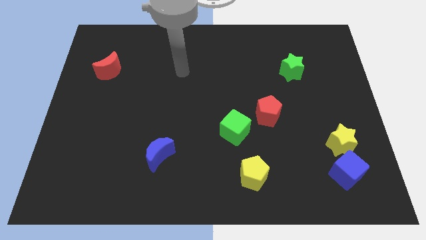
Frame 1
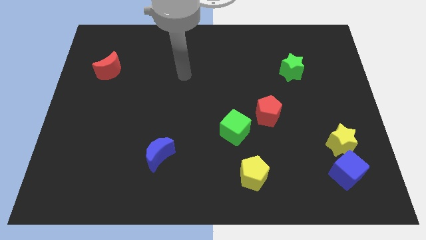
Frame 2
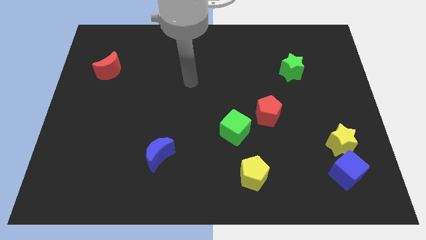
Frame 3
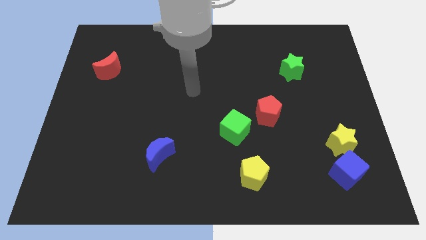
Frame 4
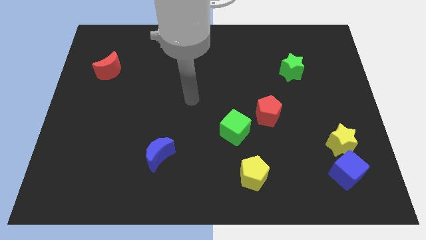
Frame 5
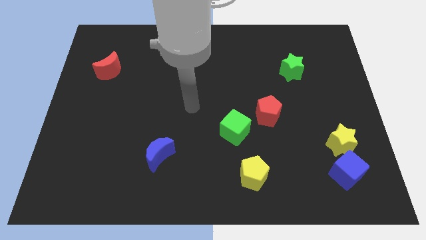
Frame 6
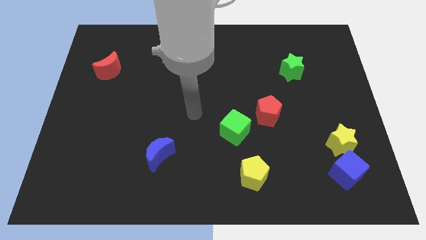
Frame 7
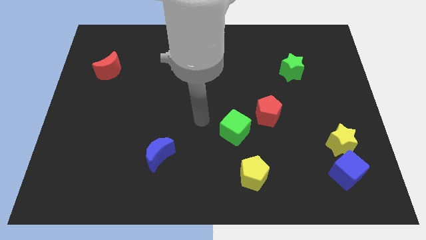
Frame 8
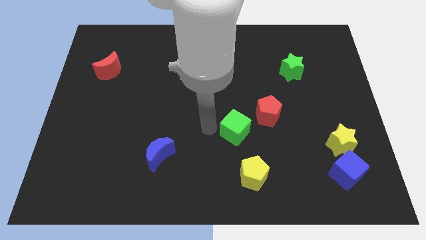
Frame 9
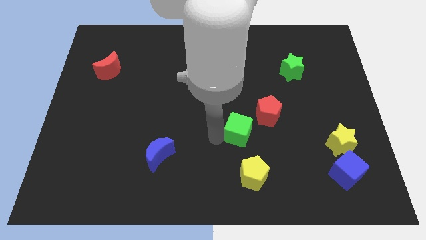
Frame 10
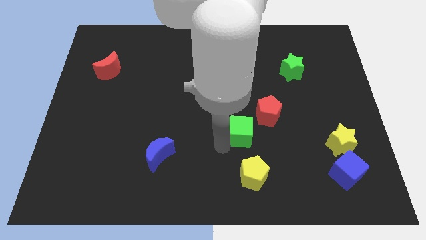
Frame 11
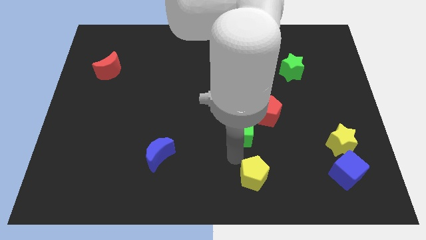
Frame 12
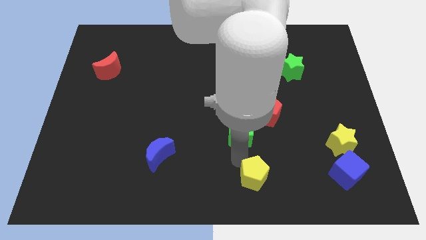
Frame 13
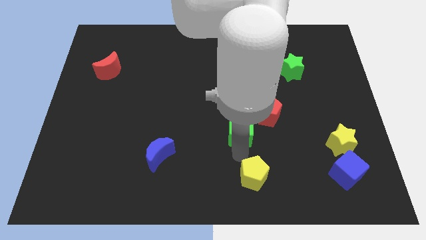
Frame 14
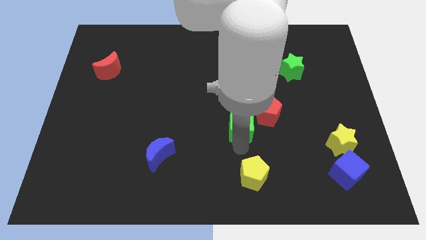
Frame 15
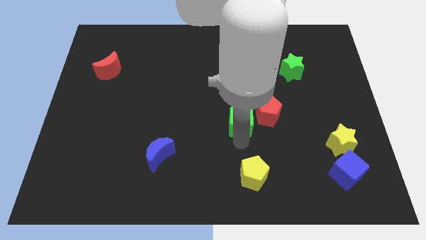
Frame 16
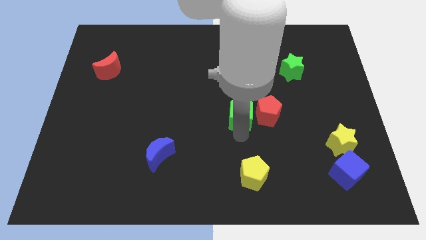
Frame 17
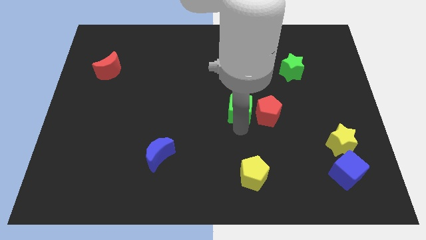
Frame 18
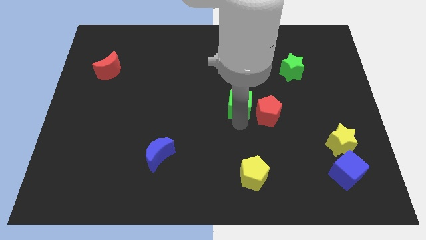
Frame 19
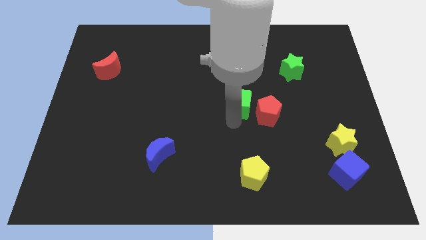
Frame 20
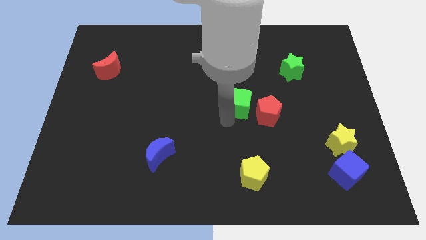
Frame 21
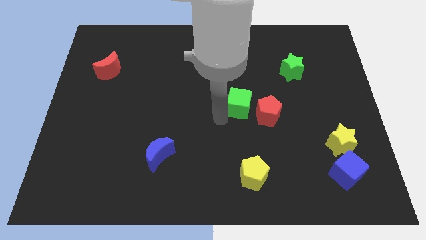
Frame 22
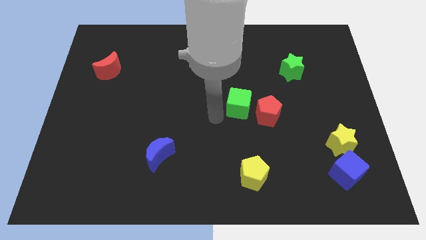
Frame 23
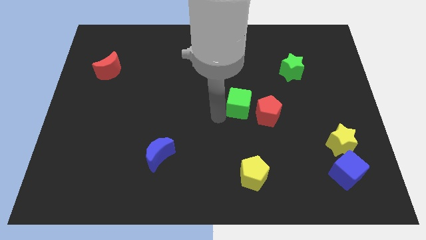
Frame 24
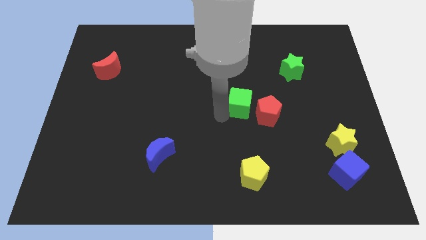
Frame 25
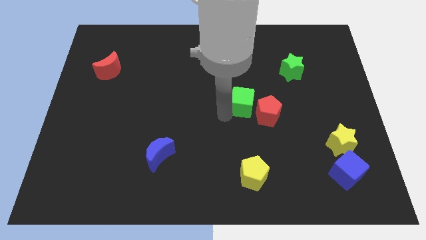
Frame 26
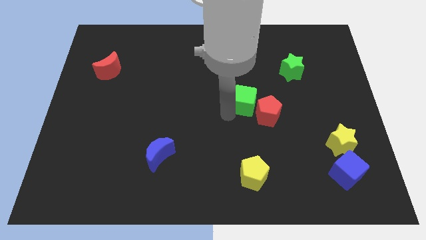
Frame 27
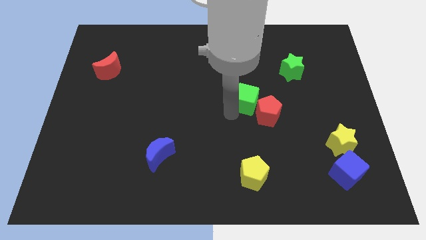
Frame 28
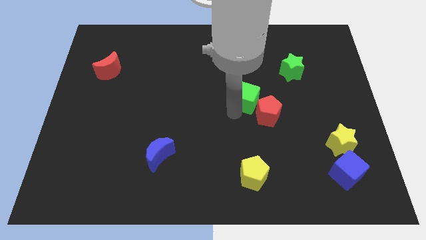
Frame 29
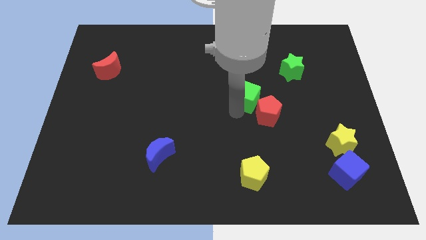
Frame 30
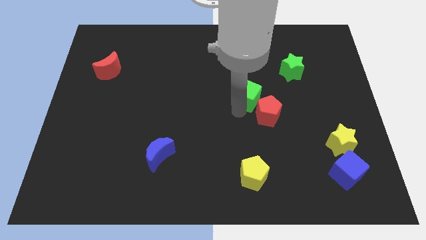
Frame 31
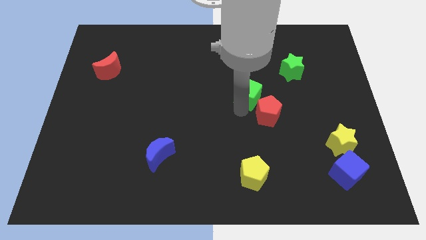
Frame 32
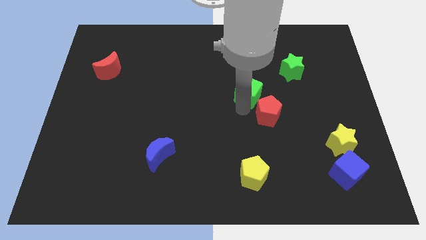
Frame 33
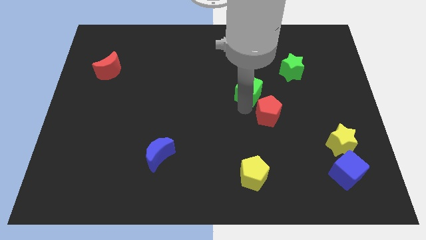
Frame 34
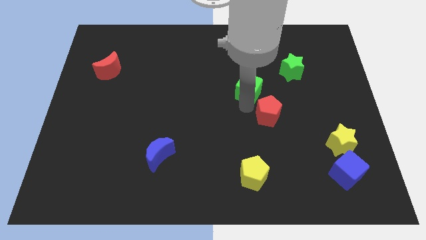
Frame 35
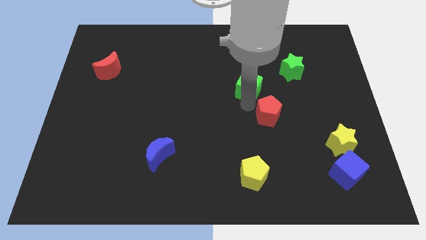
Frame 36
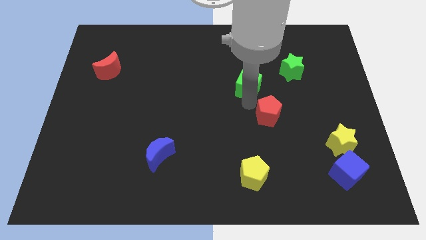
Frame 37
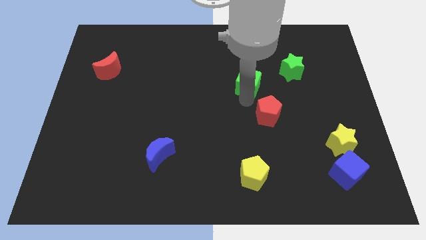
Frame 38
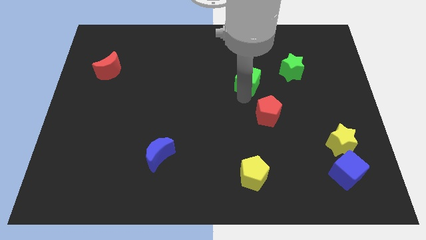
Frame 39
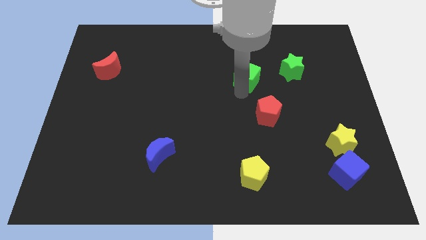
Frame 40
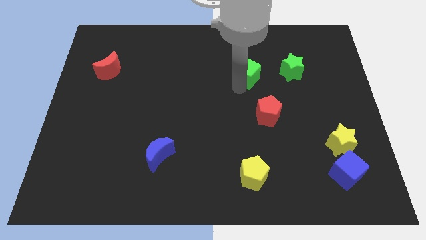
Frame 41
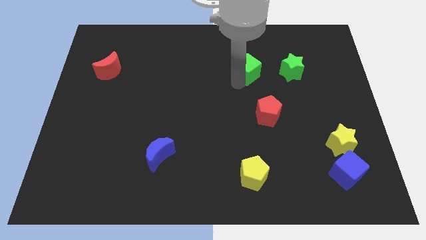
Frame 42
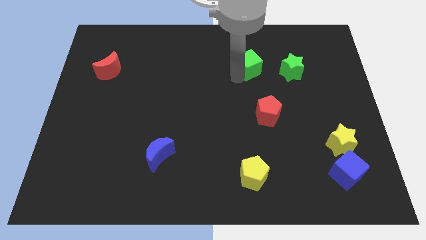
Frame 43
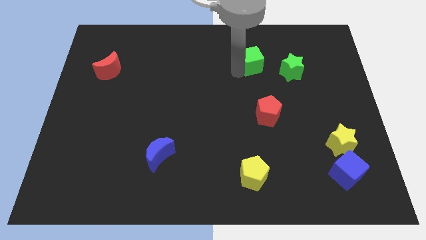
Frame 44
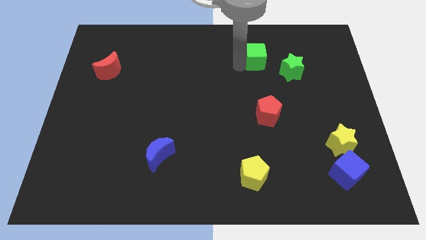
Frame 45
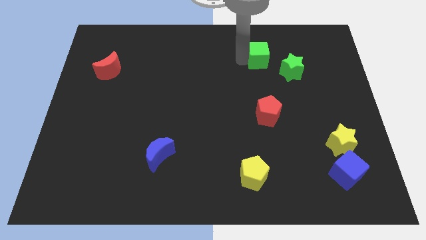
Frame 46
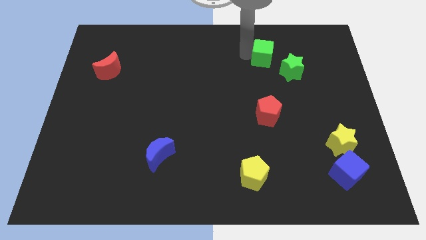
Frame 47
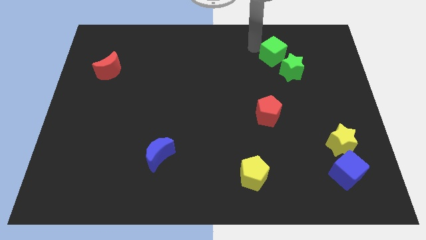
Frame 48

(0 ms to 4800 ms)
push the green cube upwards and then right

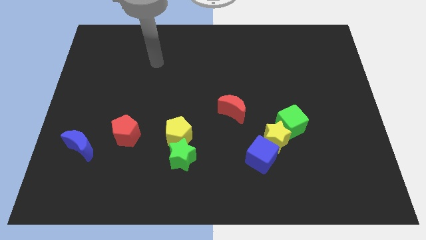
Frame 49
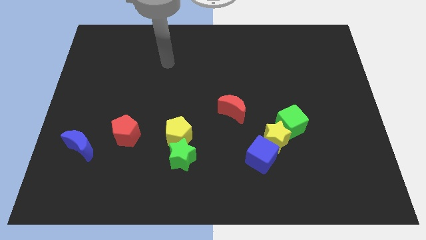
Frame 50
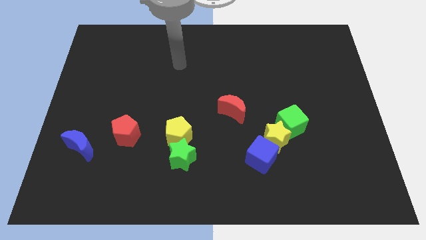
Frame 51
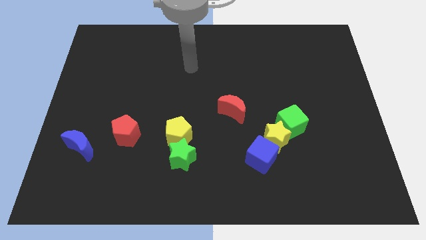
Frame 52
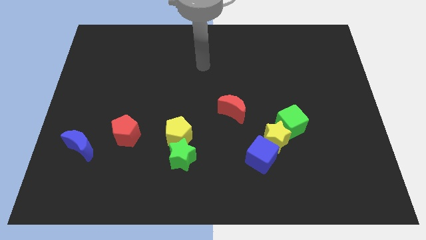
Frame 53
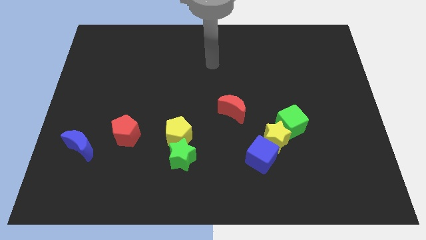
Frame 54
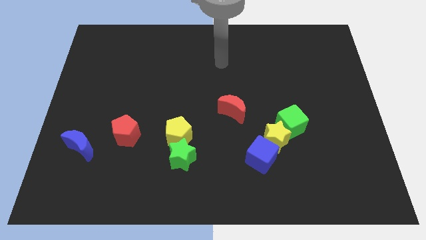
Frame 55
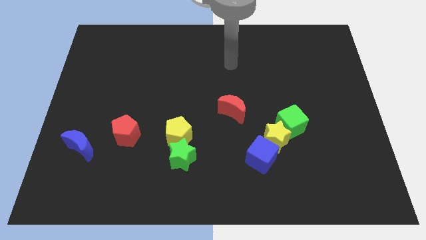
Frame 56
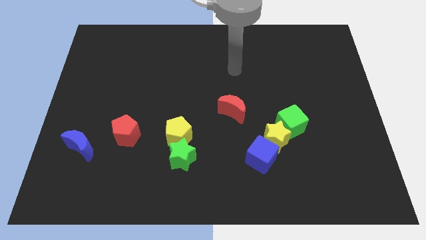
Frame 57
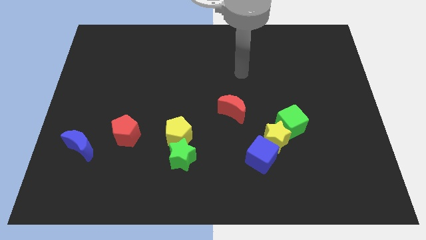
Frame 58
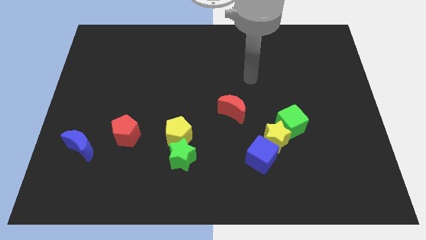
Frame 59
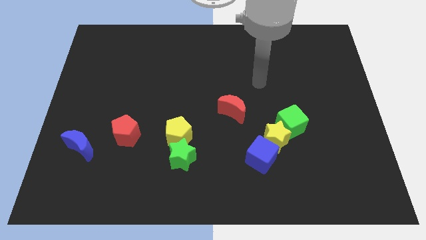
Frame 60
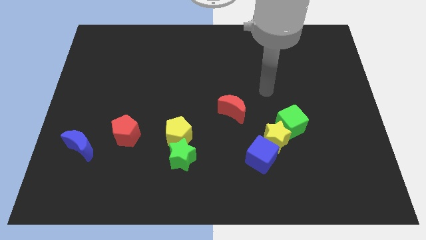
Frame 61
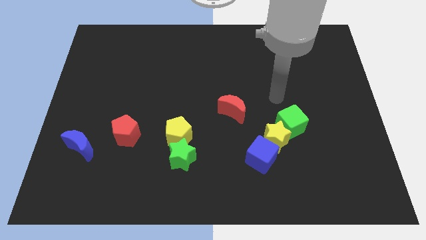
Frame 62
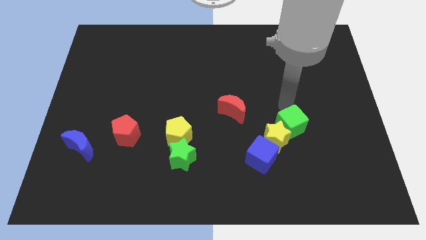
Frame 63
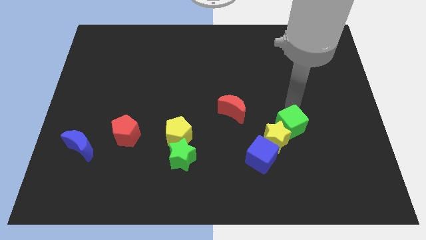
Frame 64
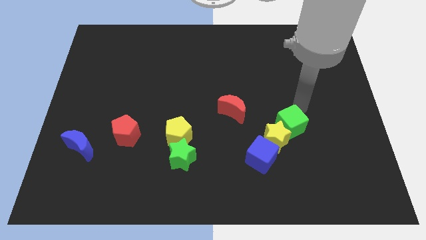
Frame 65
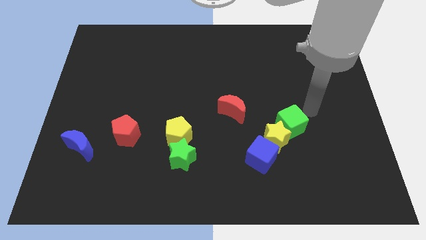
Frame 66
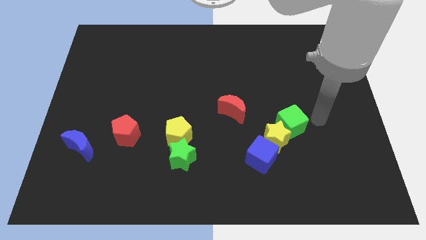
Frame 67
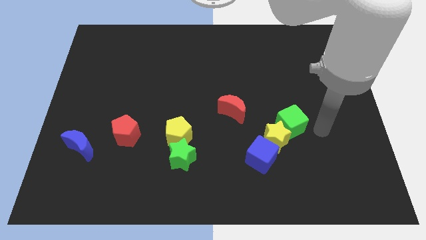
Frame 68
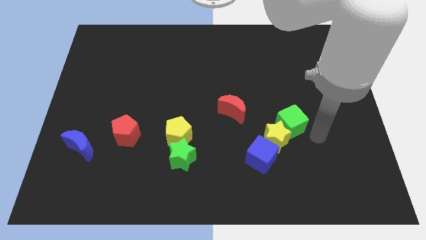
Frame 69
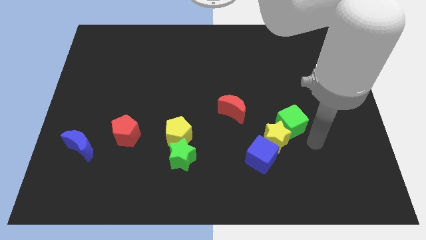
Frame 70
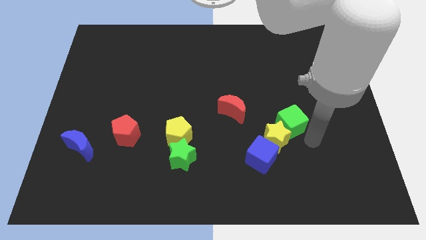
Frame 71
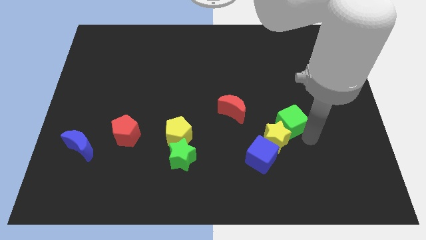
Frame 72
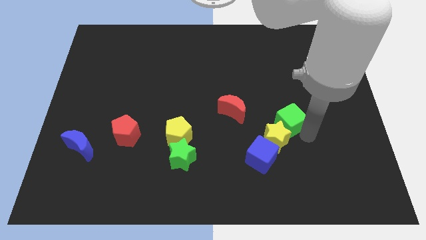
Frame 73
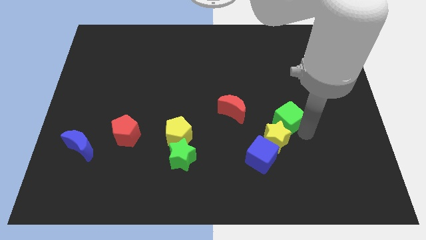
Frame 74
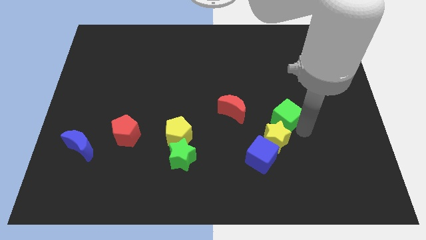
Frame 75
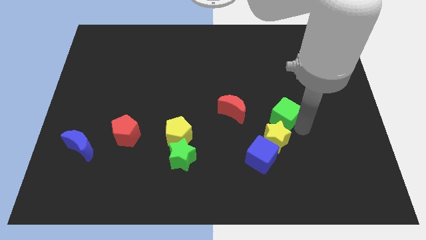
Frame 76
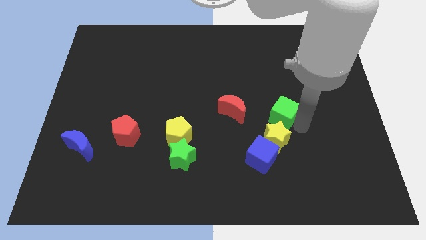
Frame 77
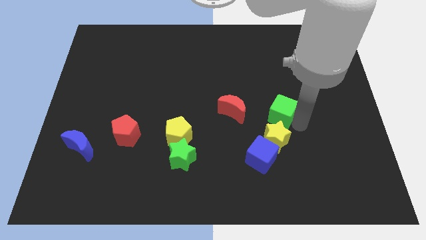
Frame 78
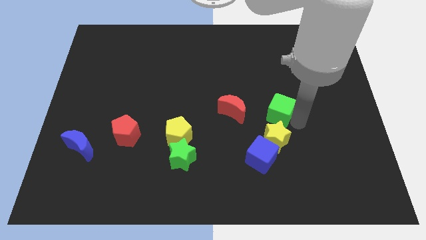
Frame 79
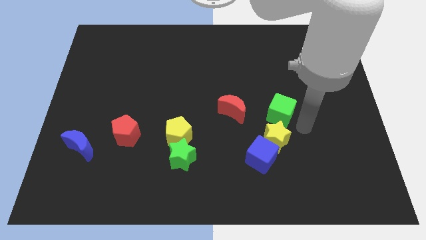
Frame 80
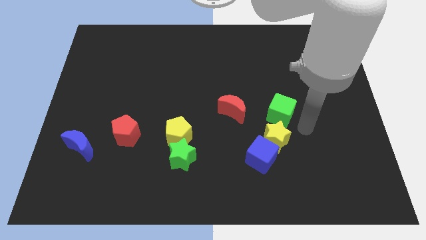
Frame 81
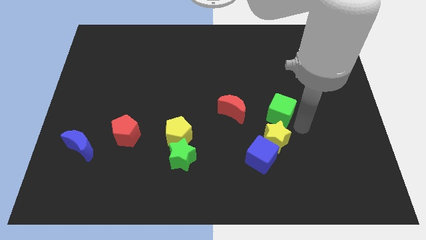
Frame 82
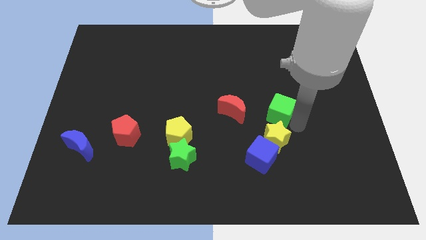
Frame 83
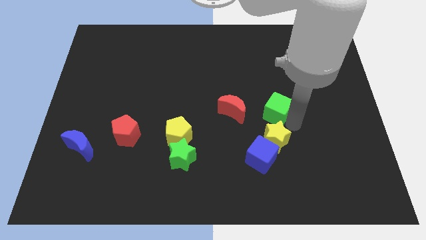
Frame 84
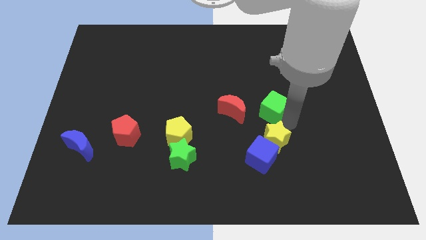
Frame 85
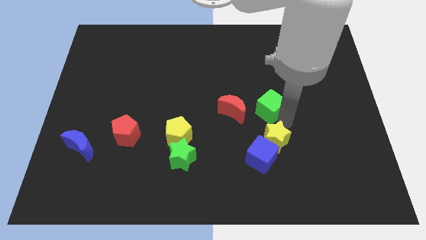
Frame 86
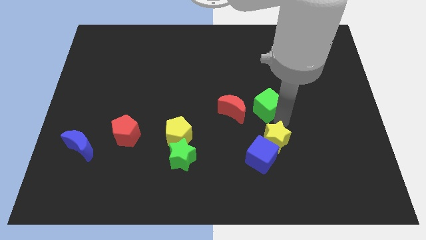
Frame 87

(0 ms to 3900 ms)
slightly push the green cube up and left
